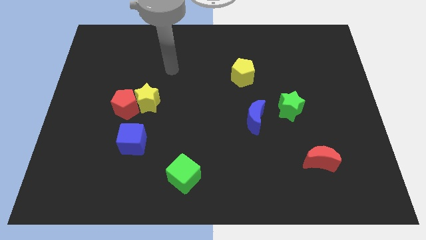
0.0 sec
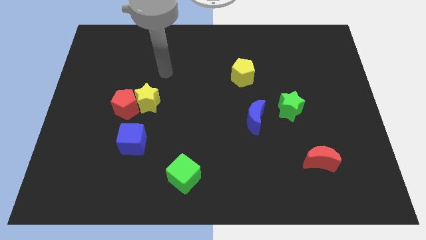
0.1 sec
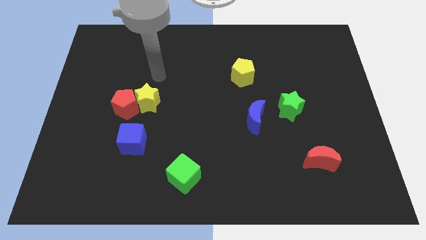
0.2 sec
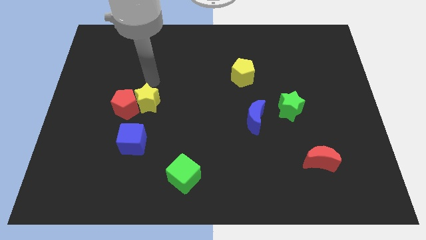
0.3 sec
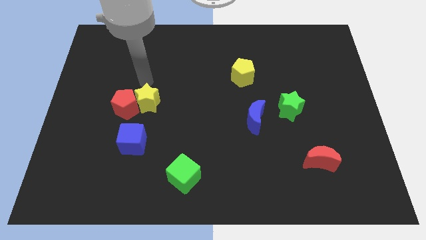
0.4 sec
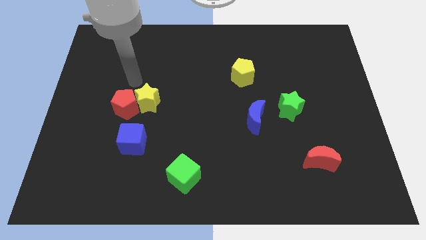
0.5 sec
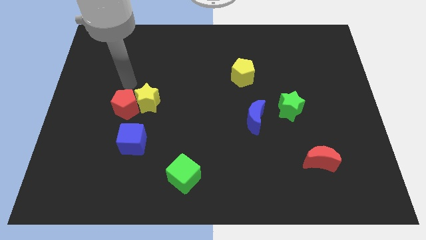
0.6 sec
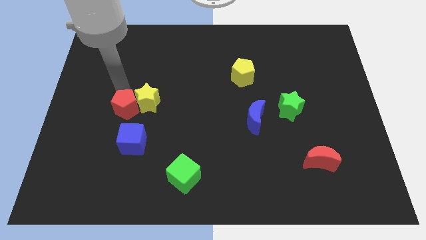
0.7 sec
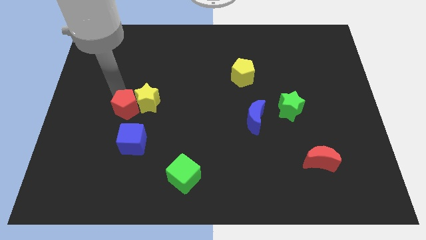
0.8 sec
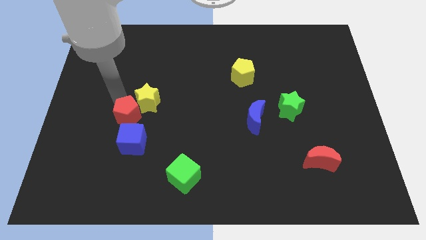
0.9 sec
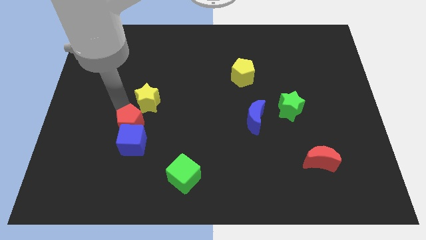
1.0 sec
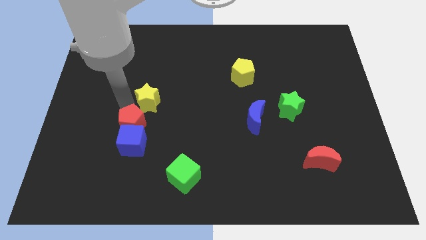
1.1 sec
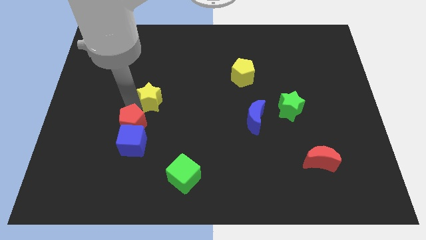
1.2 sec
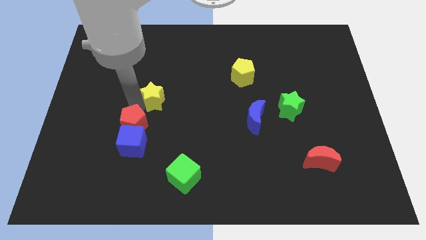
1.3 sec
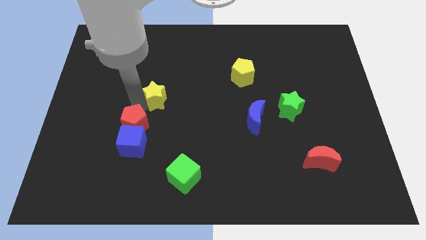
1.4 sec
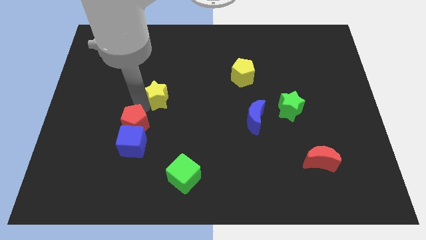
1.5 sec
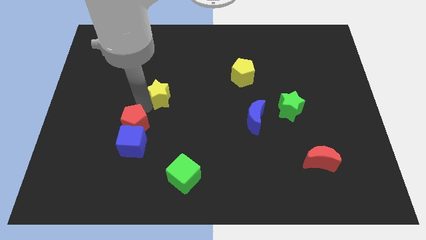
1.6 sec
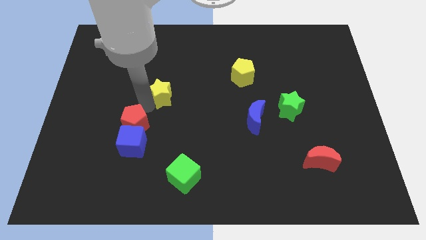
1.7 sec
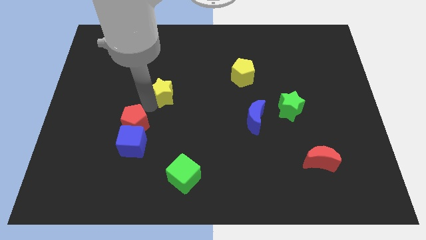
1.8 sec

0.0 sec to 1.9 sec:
pull the yellow star apart from the red pentagon

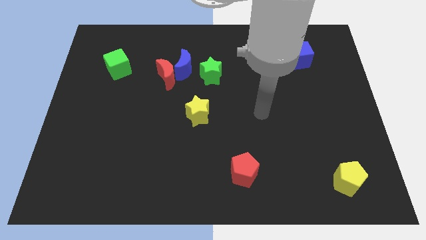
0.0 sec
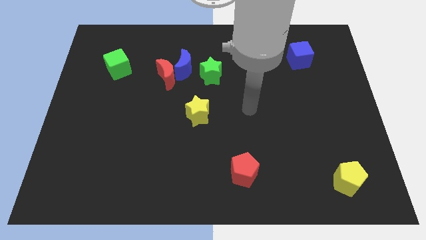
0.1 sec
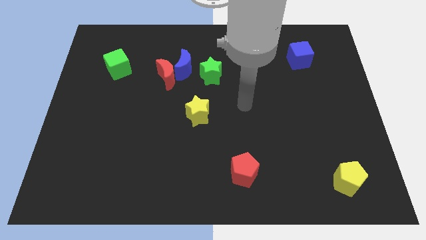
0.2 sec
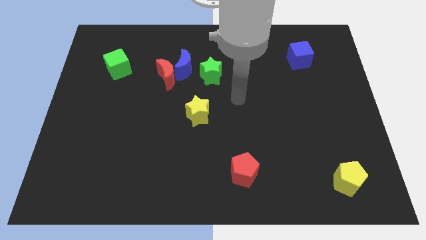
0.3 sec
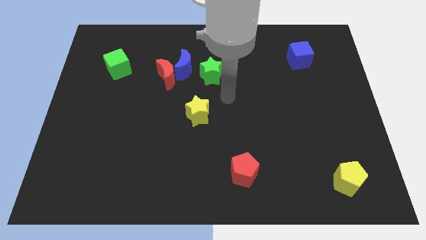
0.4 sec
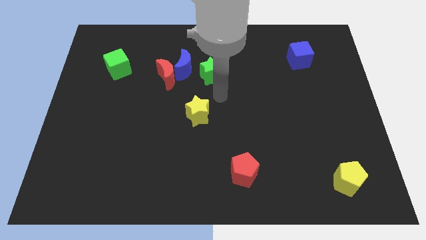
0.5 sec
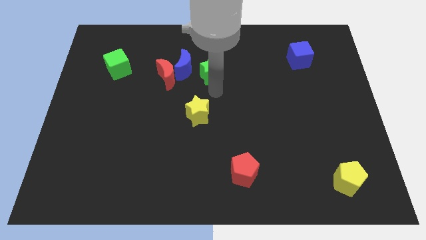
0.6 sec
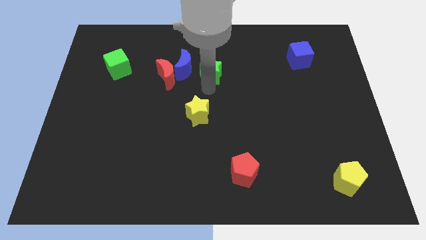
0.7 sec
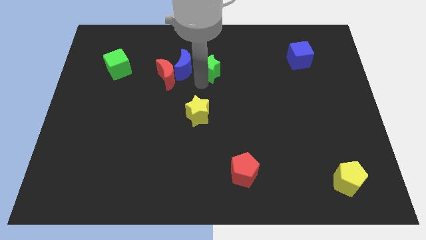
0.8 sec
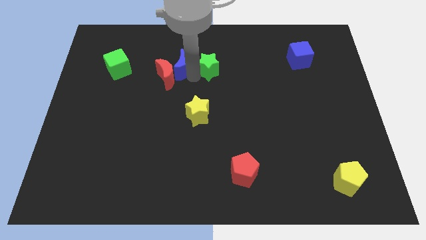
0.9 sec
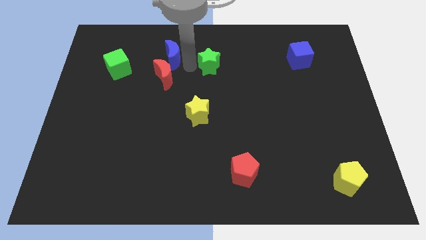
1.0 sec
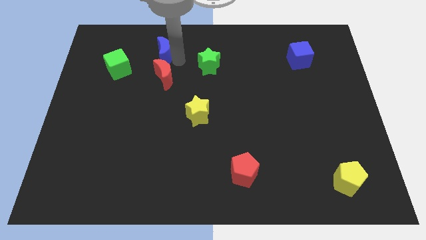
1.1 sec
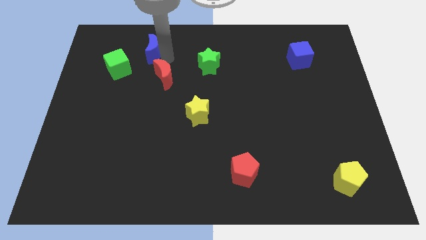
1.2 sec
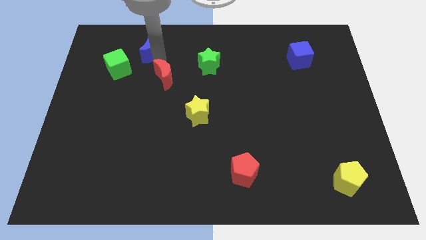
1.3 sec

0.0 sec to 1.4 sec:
separate the red moon from the blue moon

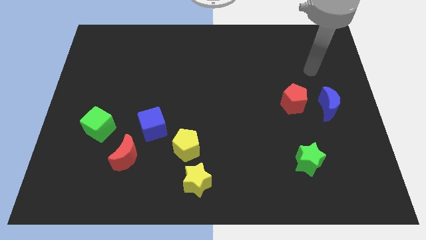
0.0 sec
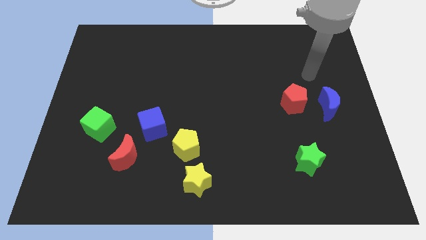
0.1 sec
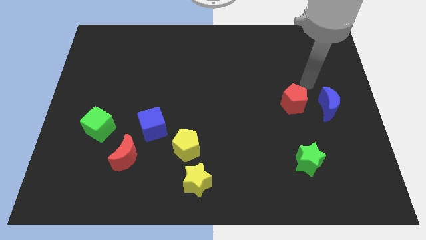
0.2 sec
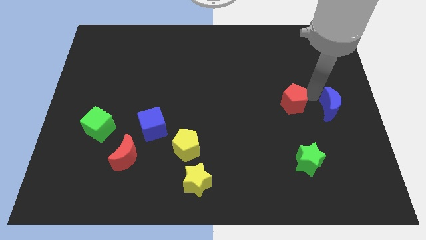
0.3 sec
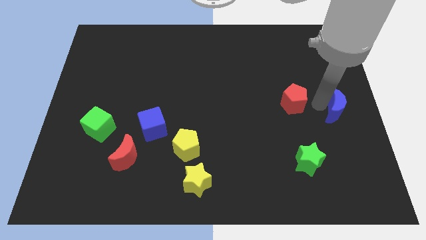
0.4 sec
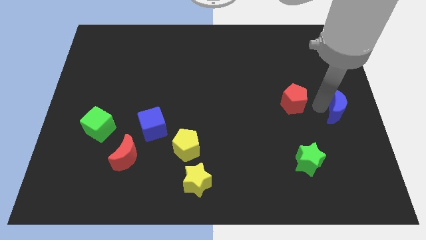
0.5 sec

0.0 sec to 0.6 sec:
pull the red pentagon apart from the blue moon

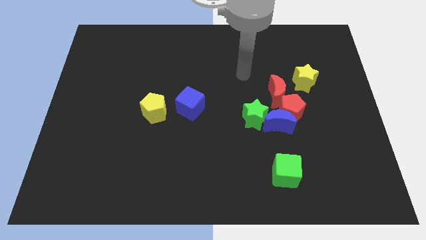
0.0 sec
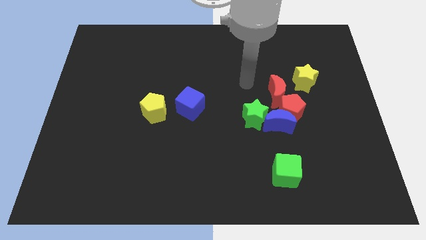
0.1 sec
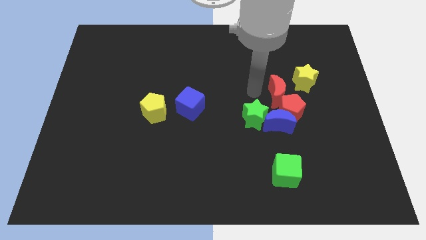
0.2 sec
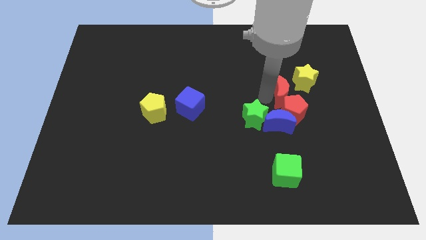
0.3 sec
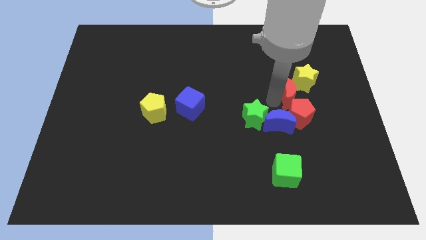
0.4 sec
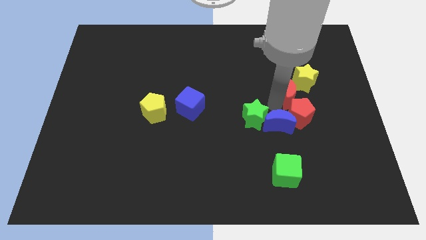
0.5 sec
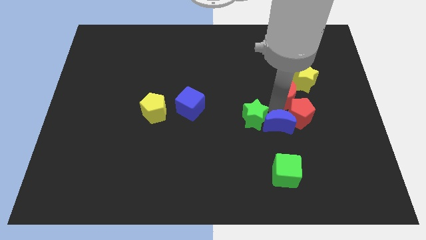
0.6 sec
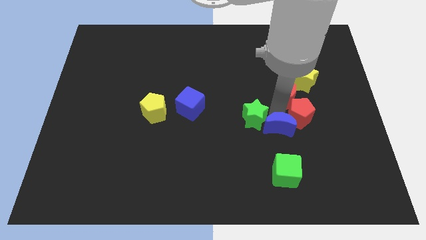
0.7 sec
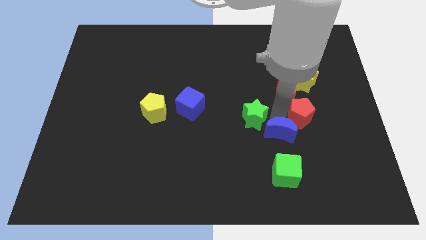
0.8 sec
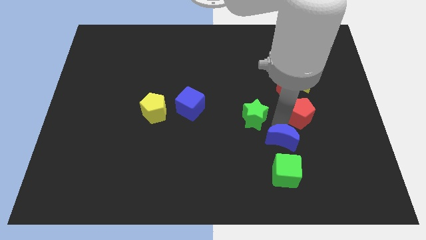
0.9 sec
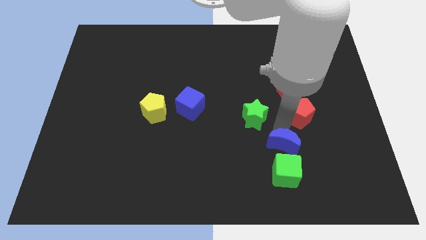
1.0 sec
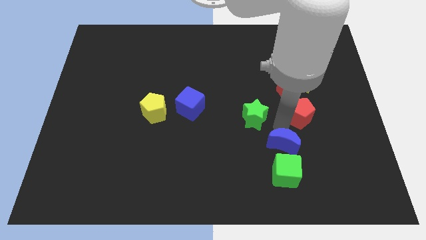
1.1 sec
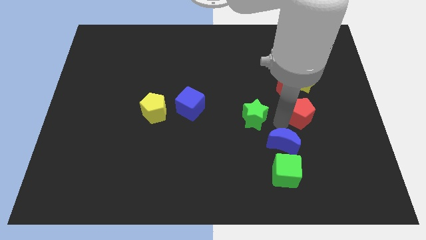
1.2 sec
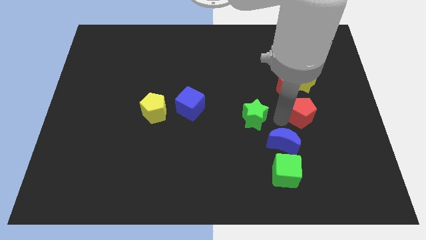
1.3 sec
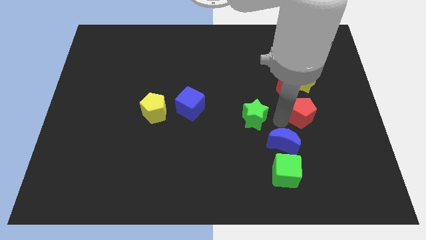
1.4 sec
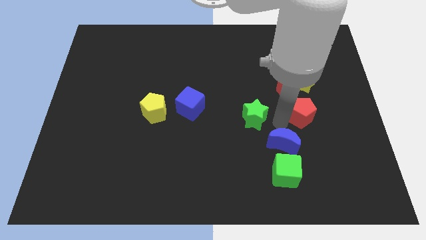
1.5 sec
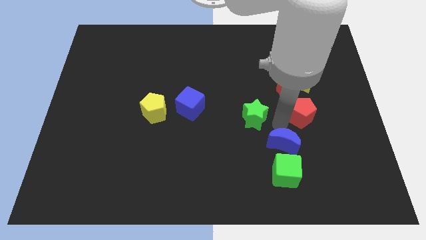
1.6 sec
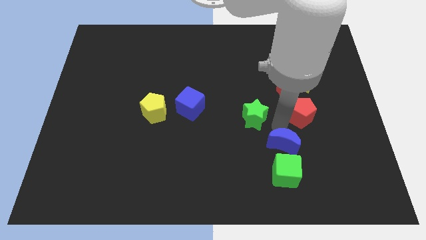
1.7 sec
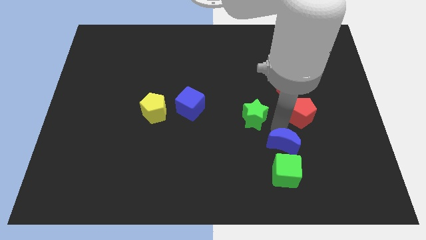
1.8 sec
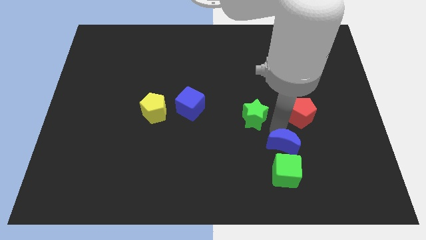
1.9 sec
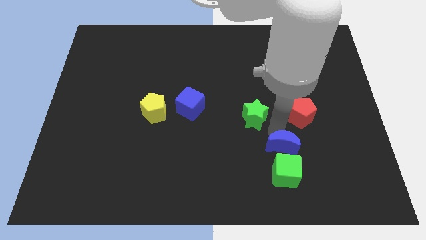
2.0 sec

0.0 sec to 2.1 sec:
pull the blue moon apart from the group of blocks

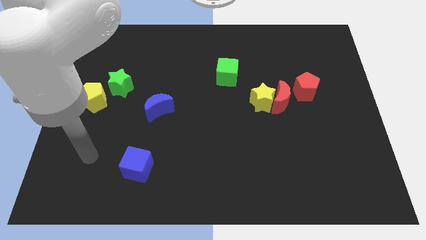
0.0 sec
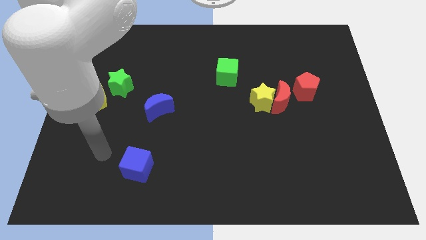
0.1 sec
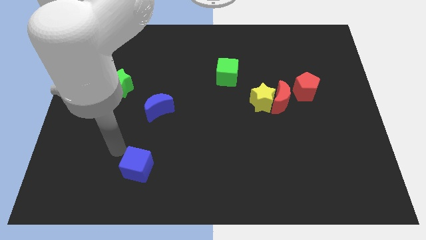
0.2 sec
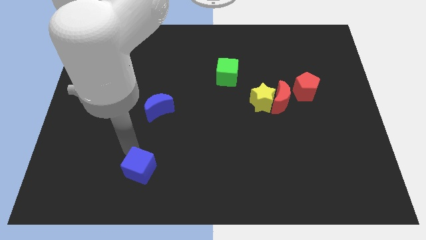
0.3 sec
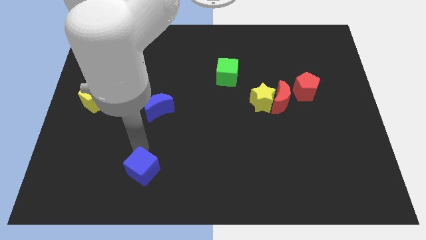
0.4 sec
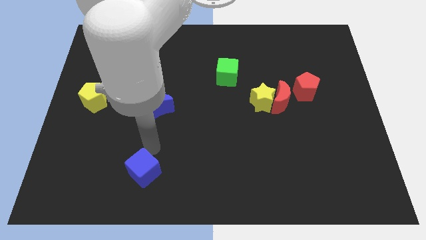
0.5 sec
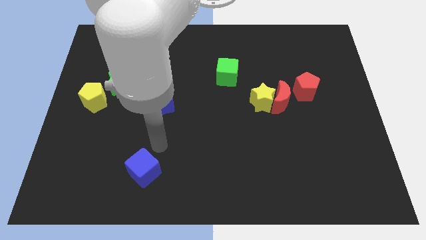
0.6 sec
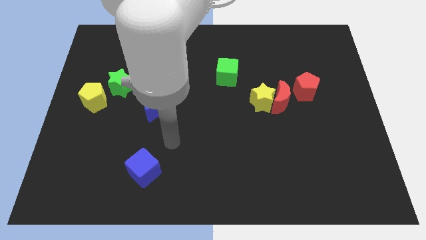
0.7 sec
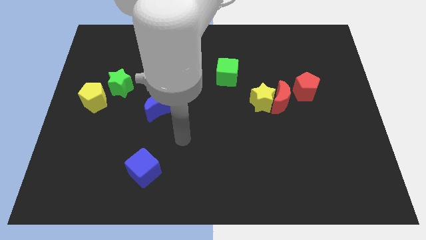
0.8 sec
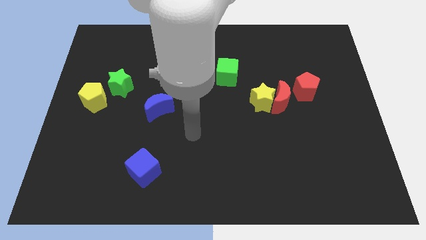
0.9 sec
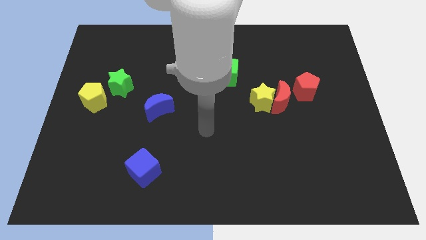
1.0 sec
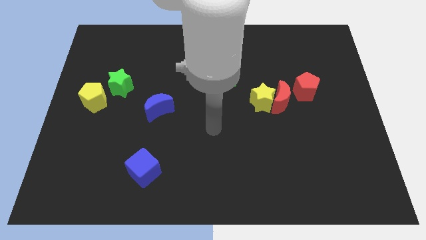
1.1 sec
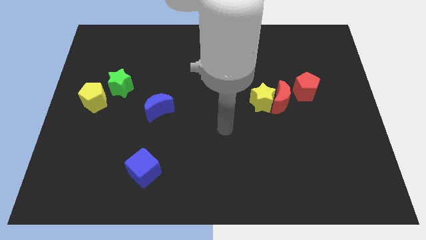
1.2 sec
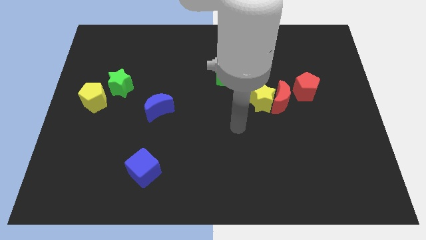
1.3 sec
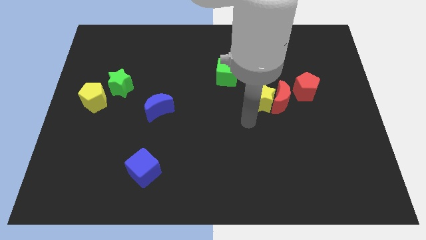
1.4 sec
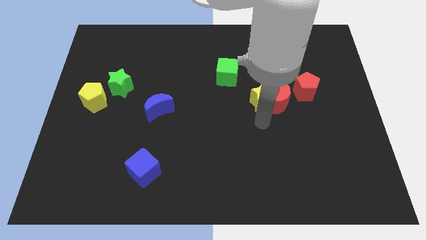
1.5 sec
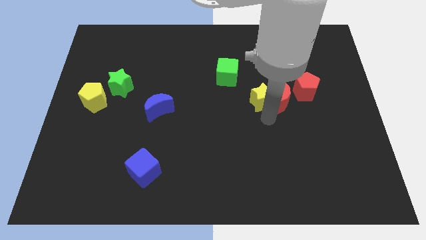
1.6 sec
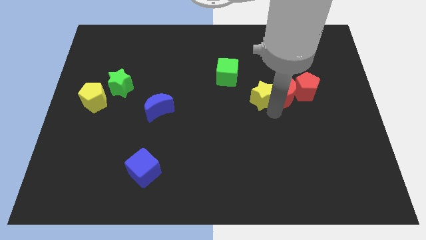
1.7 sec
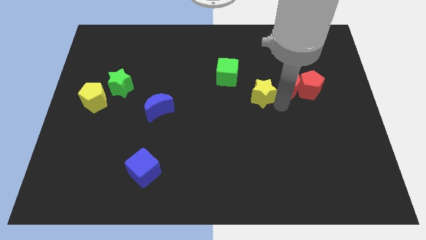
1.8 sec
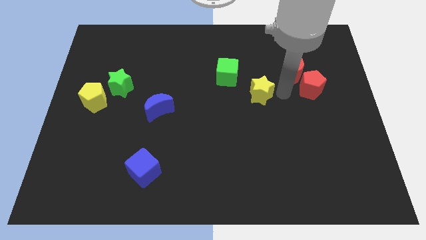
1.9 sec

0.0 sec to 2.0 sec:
move the yellow star away from the red moon

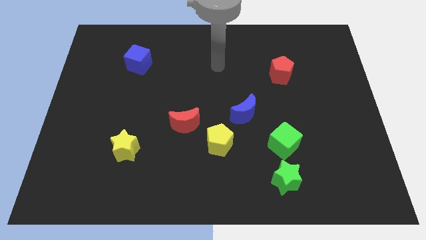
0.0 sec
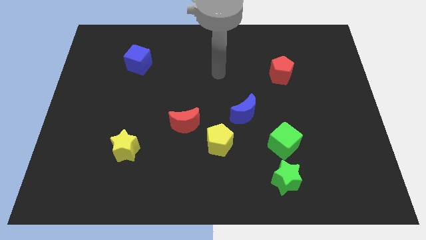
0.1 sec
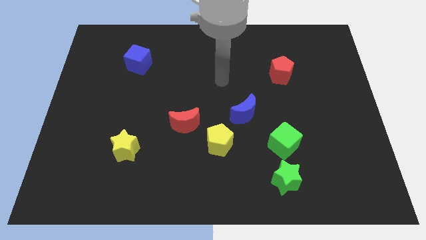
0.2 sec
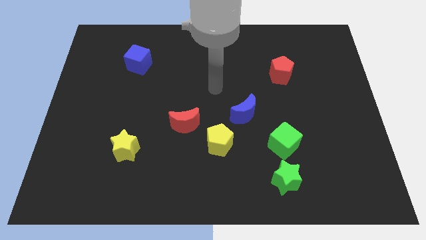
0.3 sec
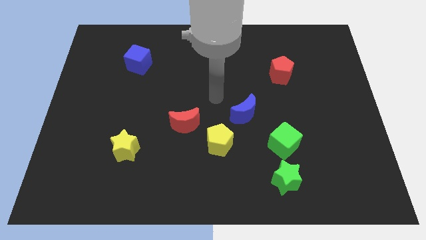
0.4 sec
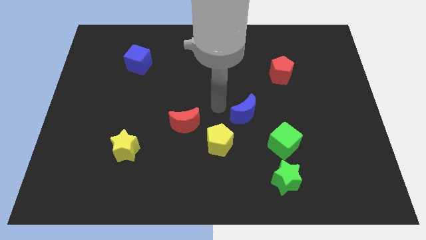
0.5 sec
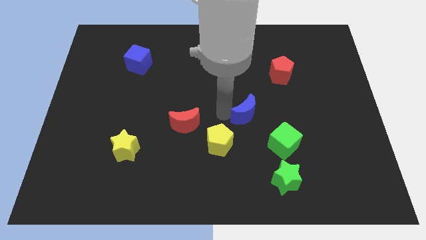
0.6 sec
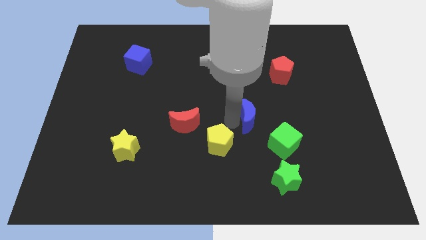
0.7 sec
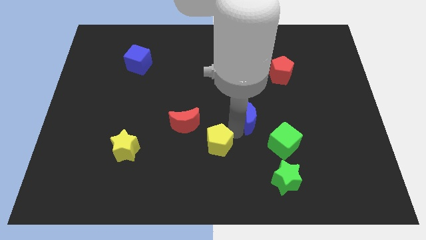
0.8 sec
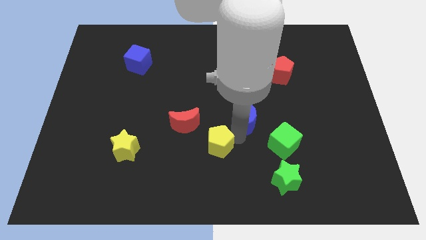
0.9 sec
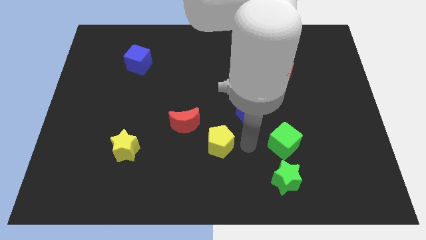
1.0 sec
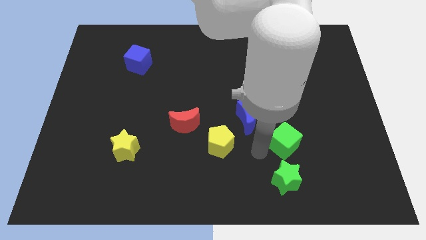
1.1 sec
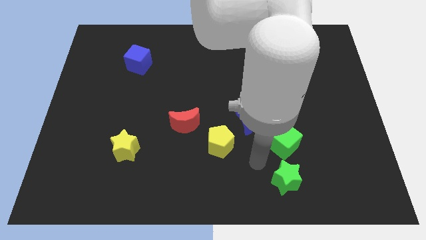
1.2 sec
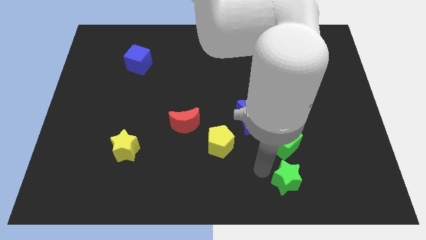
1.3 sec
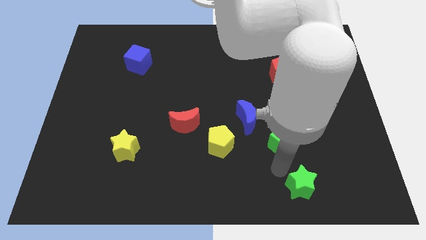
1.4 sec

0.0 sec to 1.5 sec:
separate the green cube from the green star
